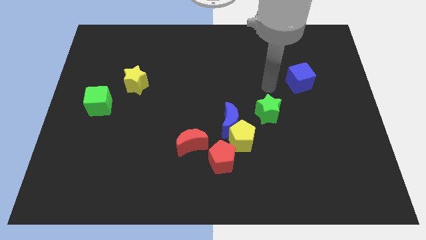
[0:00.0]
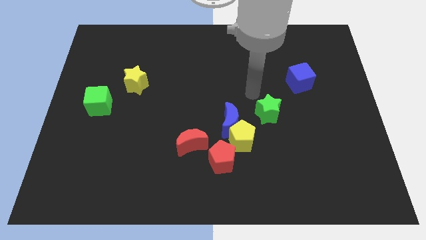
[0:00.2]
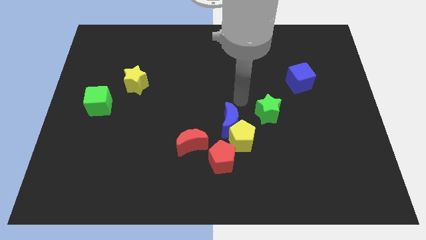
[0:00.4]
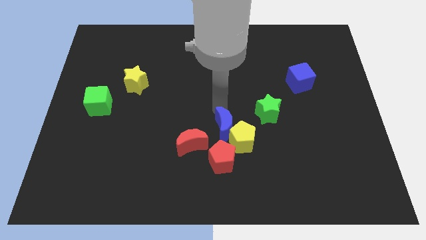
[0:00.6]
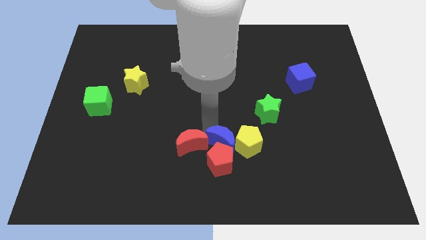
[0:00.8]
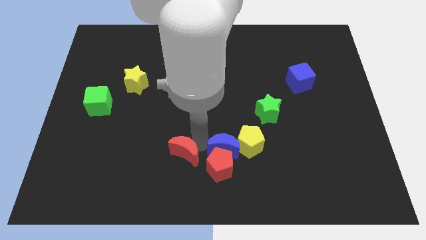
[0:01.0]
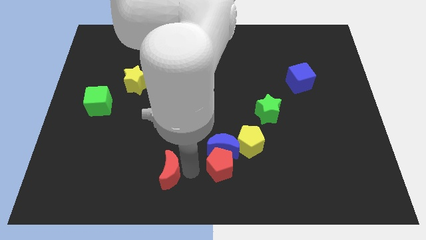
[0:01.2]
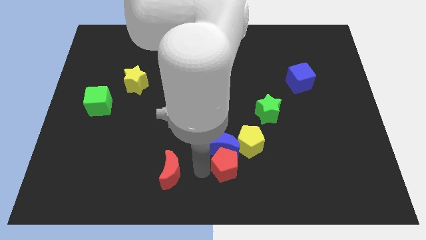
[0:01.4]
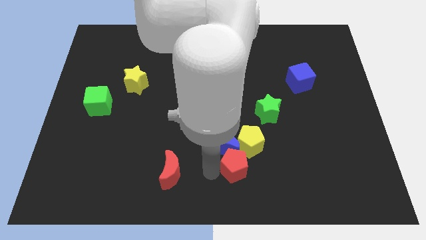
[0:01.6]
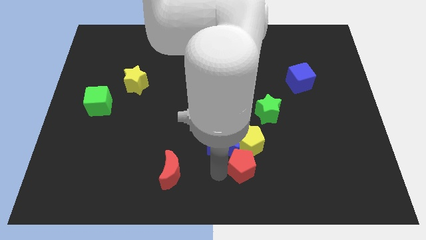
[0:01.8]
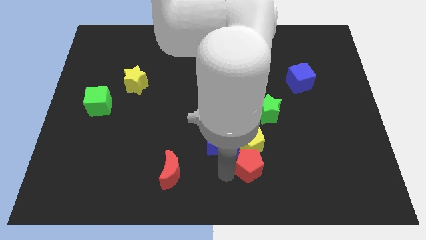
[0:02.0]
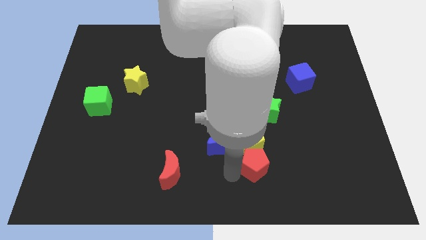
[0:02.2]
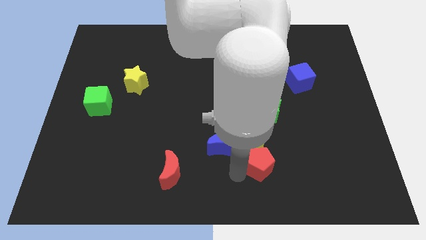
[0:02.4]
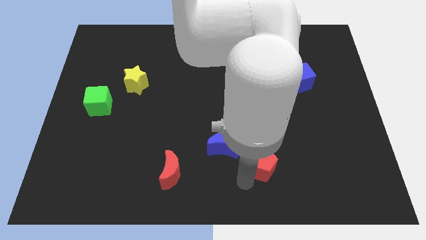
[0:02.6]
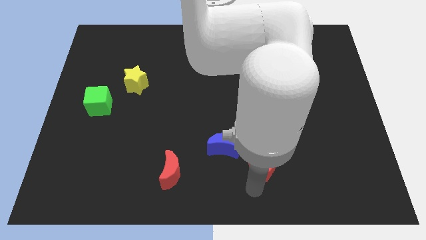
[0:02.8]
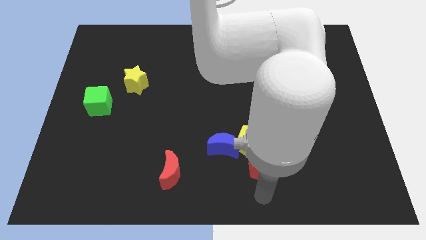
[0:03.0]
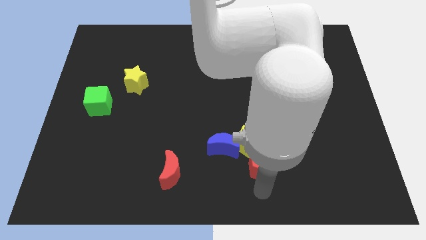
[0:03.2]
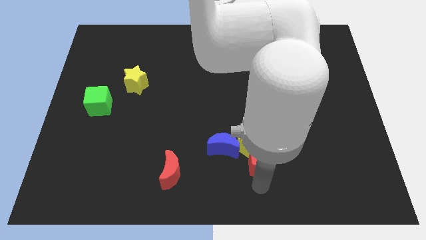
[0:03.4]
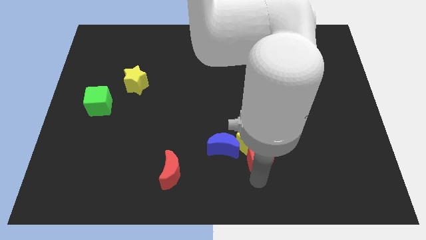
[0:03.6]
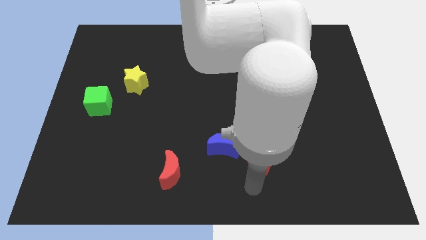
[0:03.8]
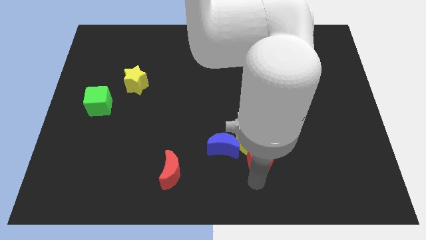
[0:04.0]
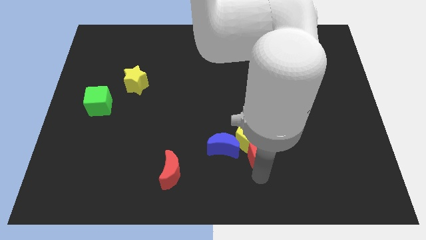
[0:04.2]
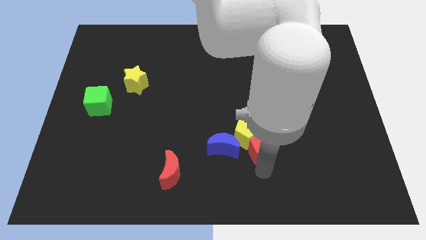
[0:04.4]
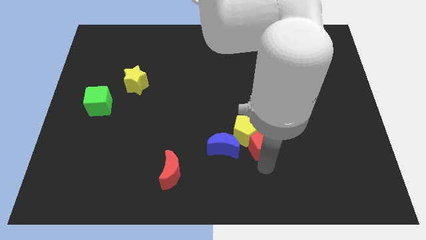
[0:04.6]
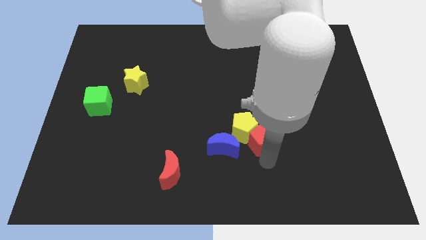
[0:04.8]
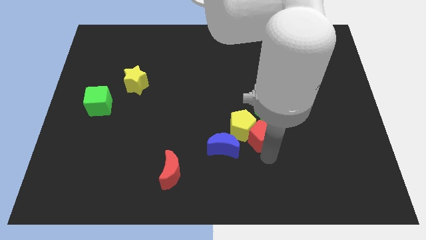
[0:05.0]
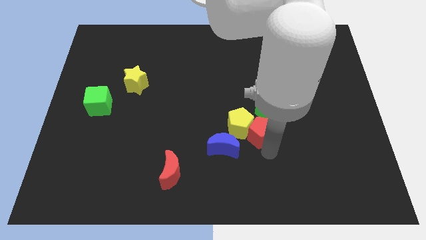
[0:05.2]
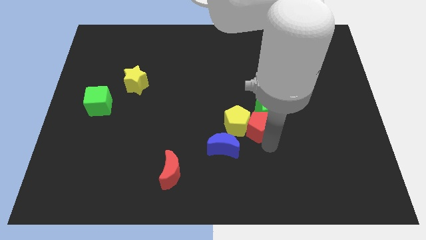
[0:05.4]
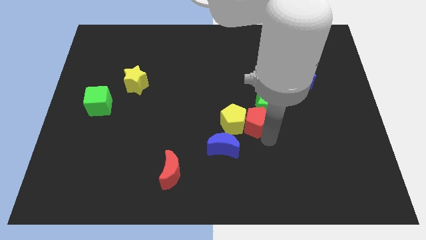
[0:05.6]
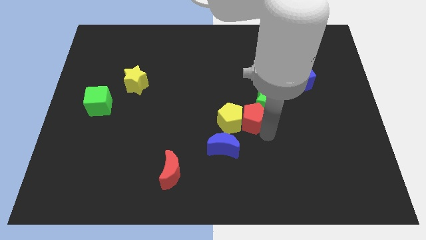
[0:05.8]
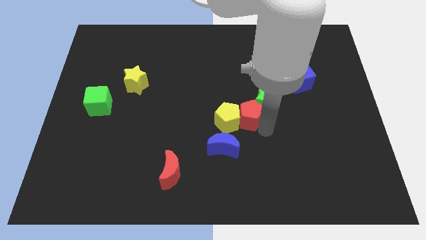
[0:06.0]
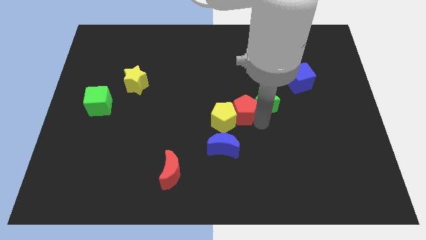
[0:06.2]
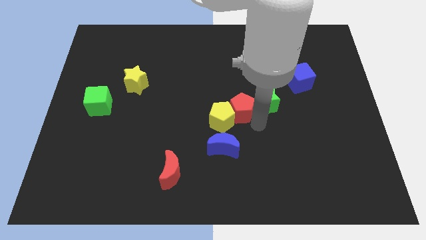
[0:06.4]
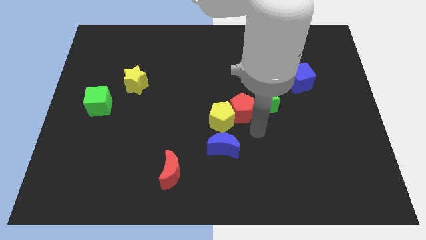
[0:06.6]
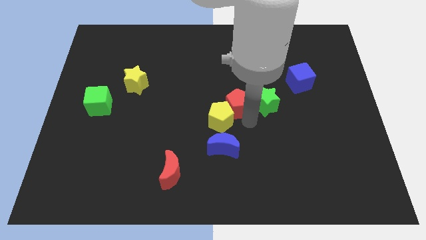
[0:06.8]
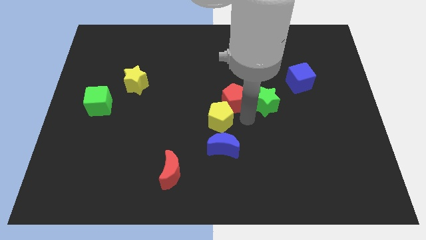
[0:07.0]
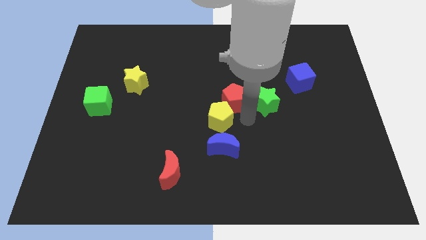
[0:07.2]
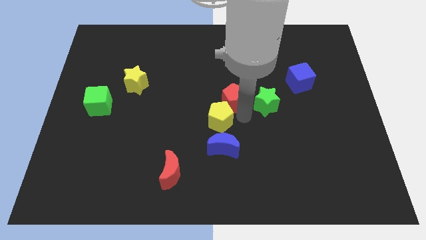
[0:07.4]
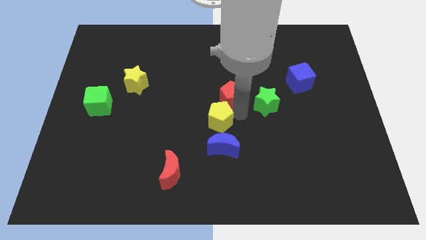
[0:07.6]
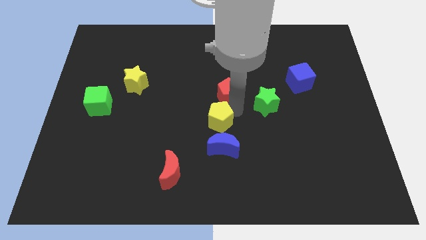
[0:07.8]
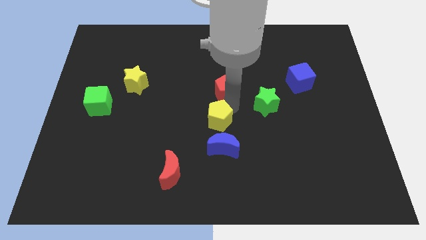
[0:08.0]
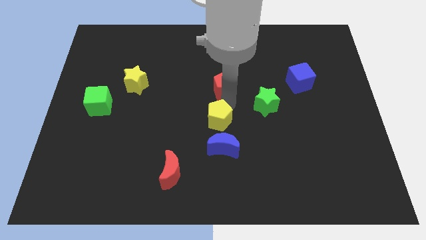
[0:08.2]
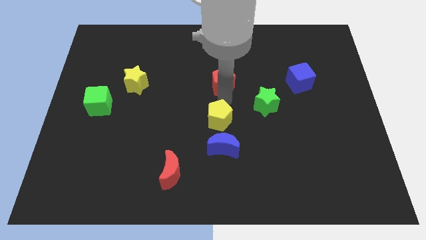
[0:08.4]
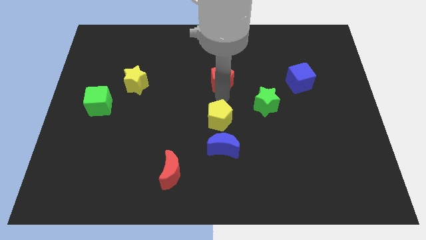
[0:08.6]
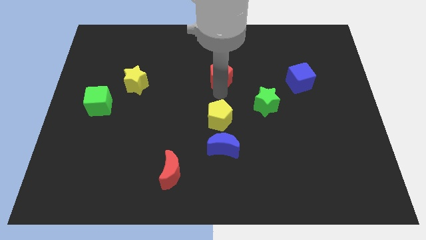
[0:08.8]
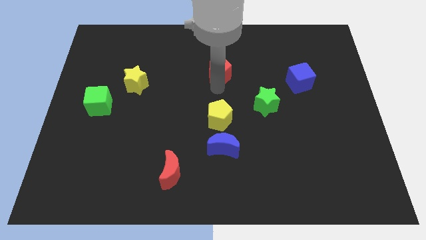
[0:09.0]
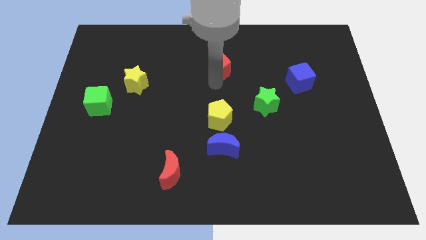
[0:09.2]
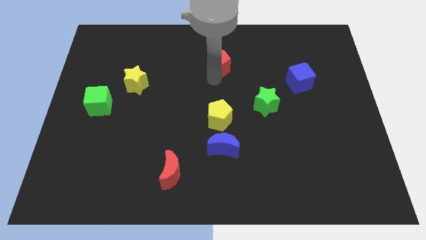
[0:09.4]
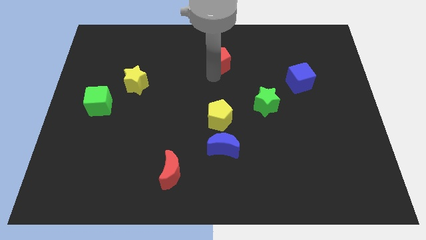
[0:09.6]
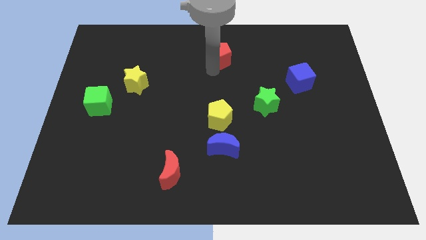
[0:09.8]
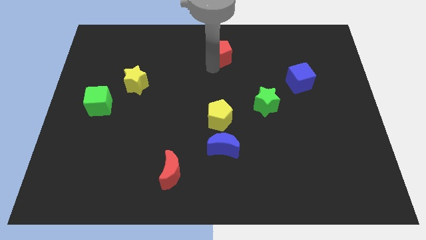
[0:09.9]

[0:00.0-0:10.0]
slide the red pentagon to the top side

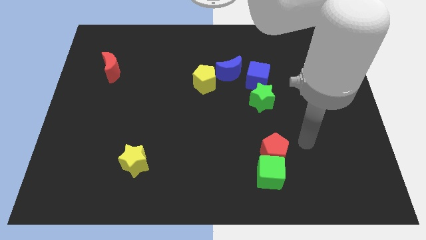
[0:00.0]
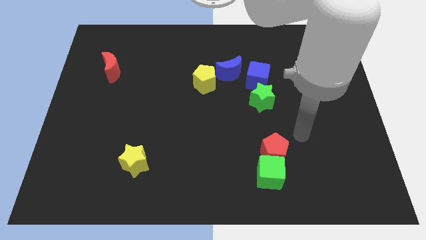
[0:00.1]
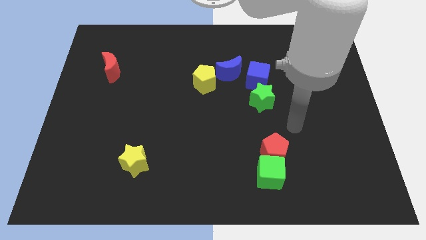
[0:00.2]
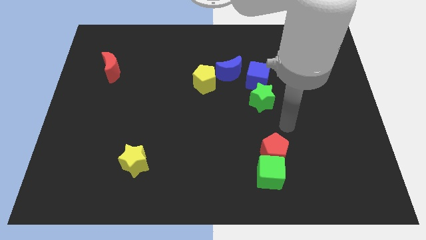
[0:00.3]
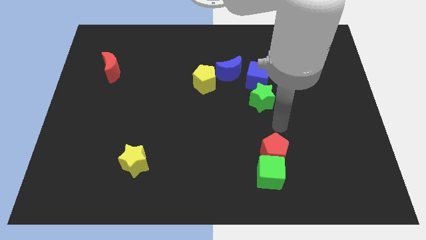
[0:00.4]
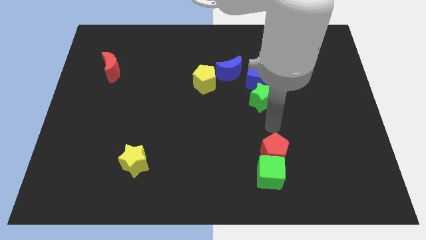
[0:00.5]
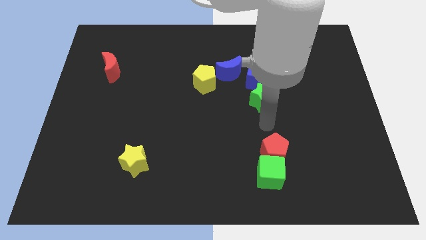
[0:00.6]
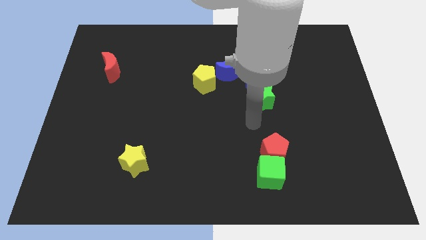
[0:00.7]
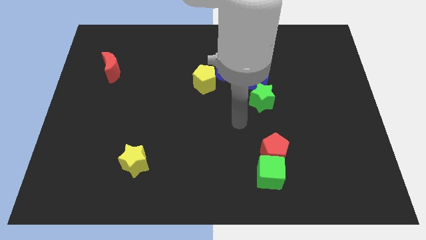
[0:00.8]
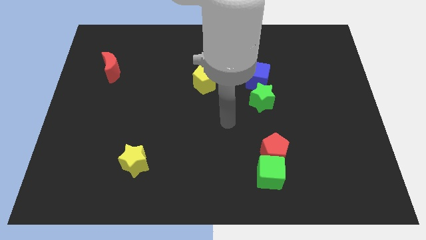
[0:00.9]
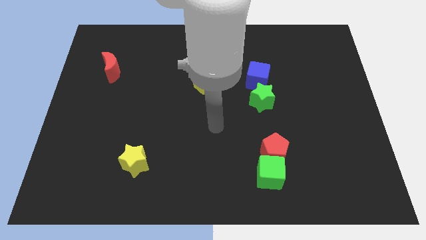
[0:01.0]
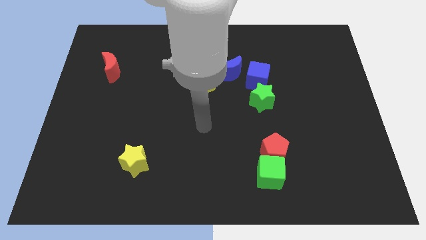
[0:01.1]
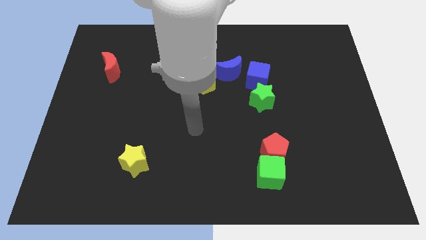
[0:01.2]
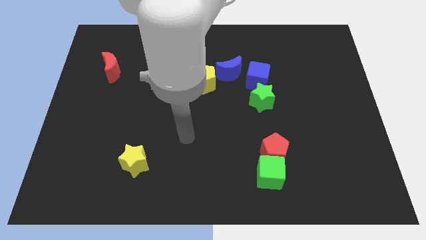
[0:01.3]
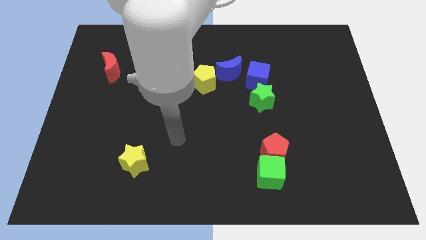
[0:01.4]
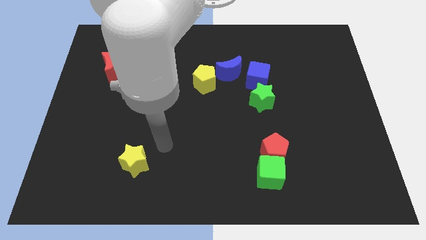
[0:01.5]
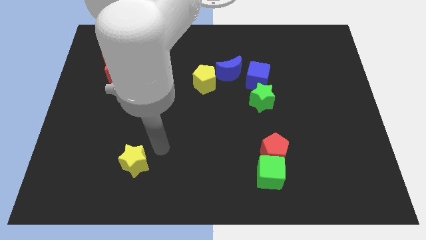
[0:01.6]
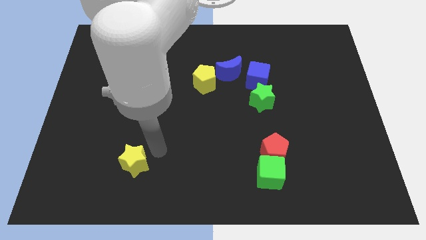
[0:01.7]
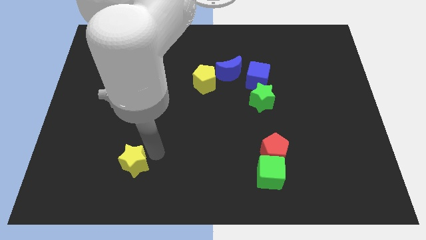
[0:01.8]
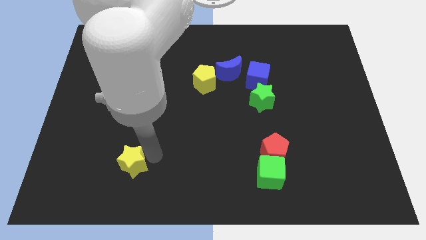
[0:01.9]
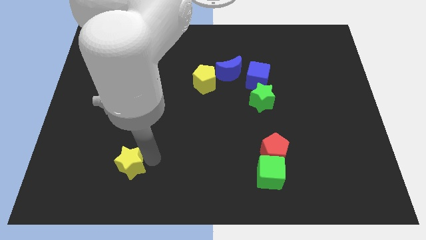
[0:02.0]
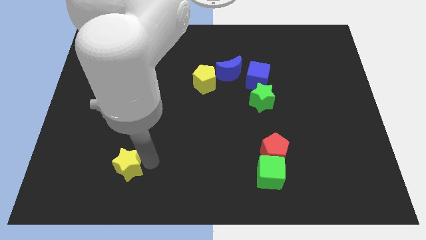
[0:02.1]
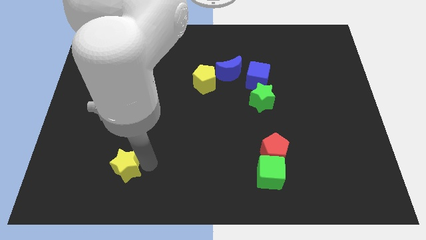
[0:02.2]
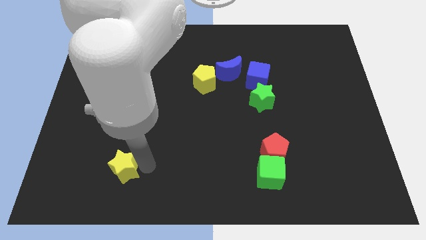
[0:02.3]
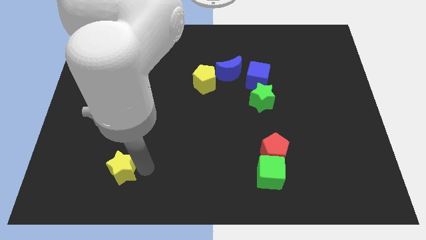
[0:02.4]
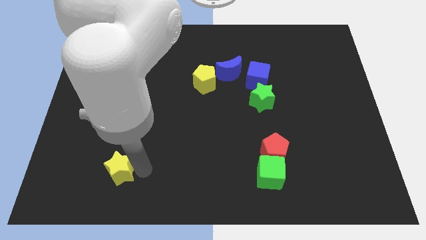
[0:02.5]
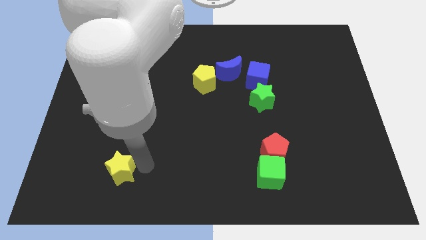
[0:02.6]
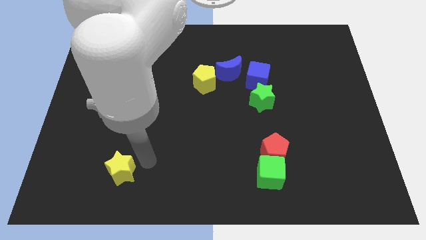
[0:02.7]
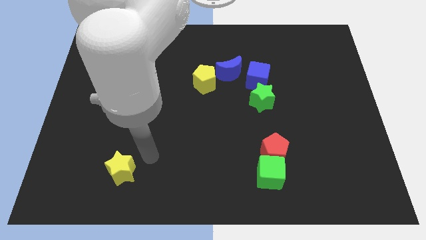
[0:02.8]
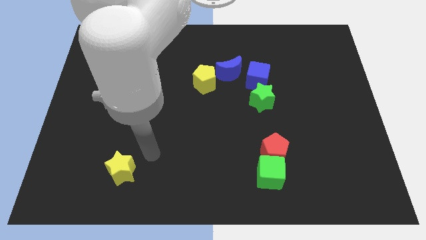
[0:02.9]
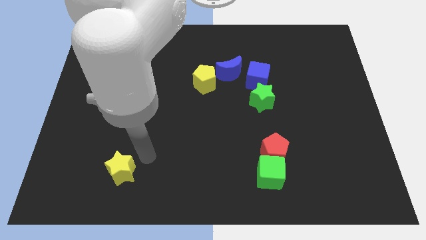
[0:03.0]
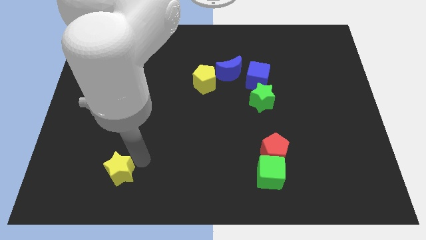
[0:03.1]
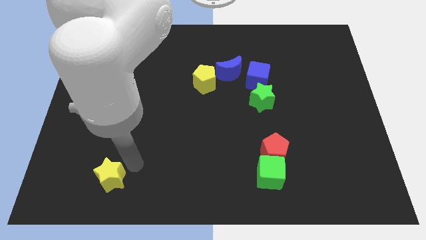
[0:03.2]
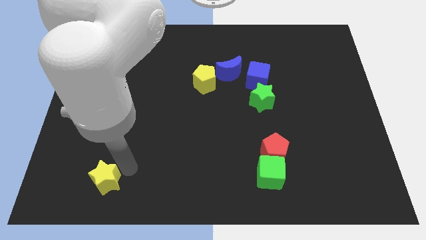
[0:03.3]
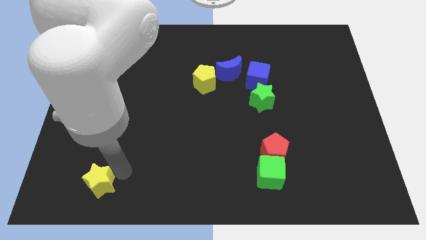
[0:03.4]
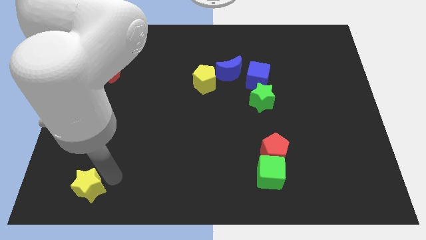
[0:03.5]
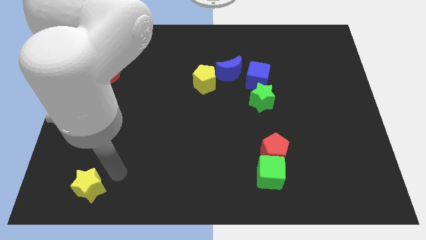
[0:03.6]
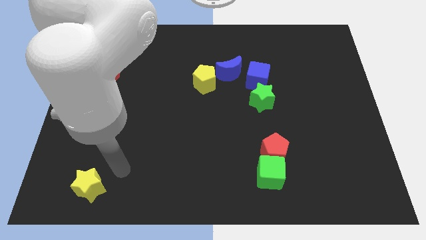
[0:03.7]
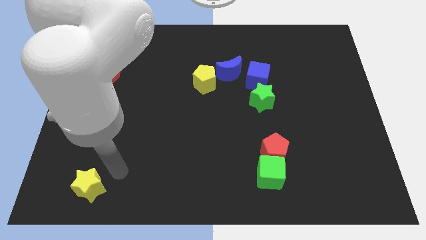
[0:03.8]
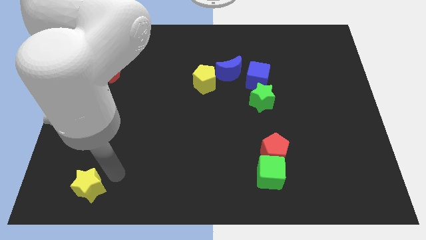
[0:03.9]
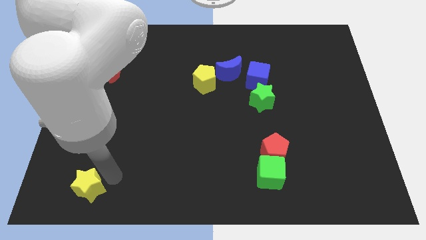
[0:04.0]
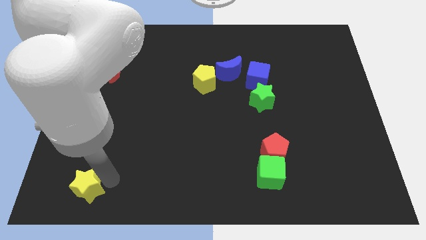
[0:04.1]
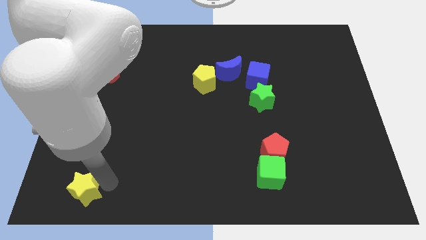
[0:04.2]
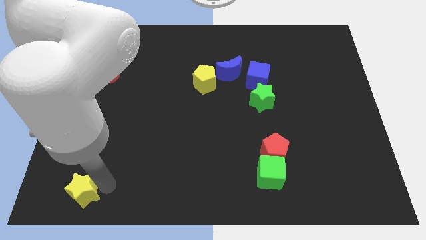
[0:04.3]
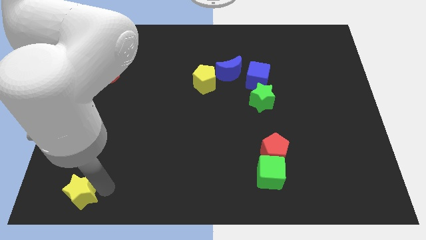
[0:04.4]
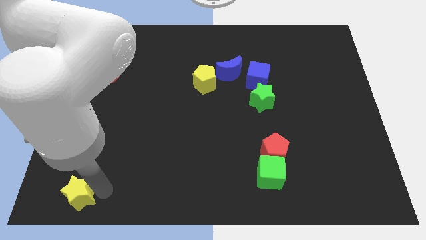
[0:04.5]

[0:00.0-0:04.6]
put the yellow star to the lower left corner
